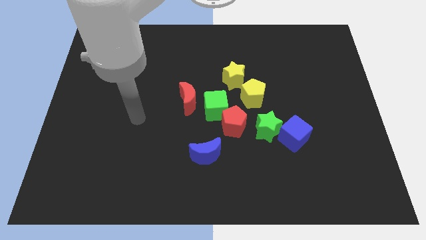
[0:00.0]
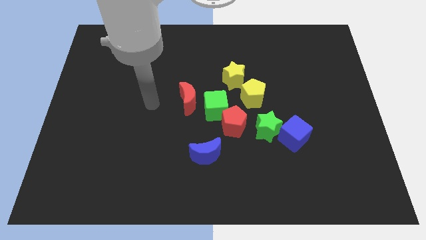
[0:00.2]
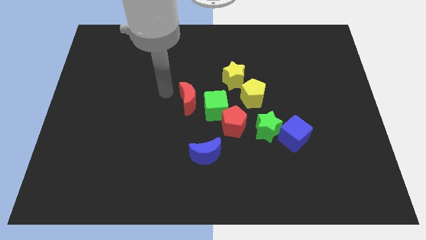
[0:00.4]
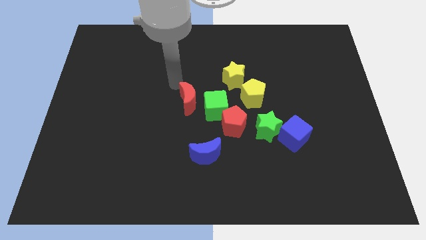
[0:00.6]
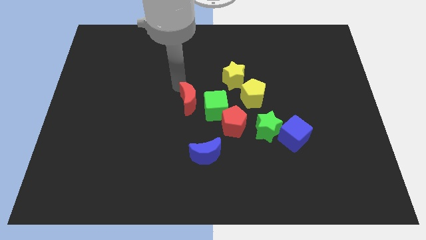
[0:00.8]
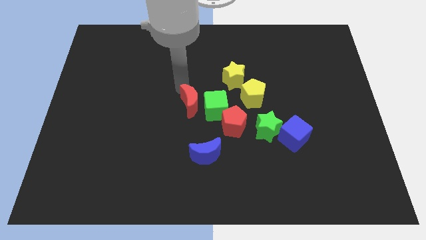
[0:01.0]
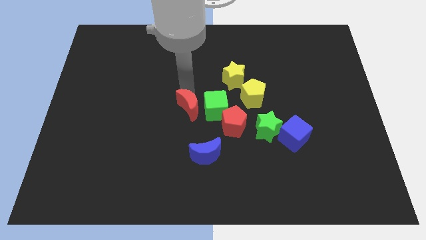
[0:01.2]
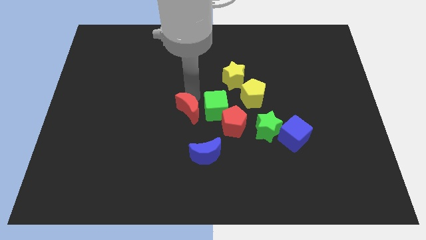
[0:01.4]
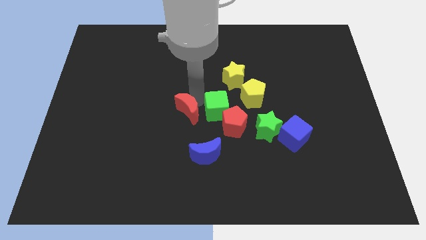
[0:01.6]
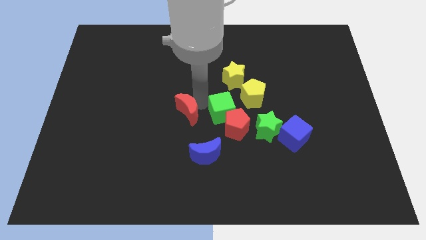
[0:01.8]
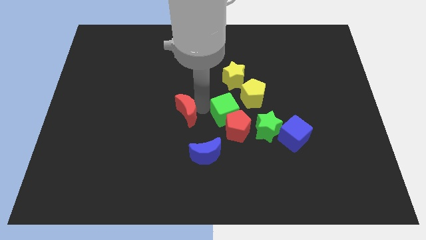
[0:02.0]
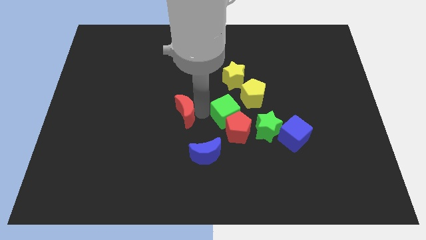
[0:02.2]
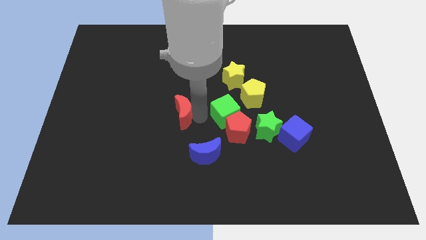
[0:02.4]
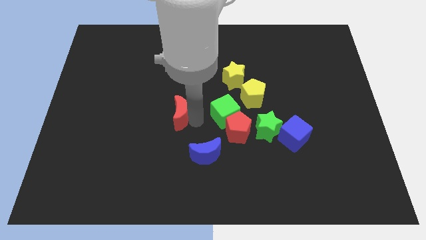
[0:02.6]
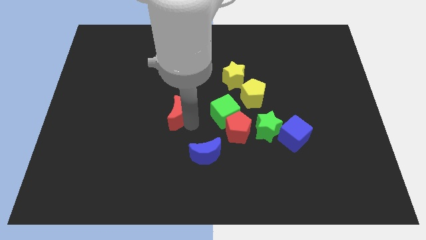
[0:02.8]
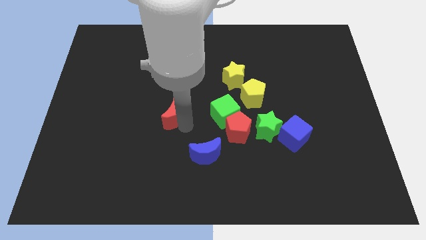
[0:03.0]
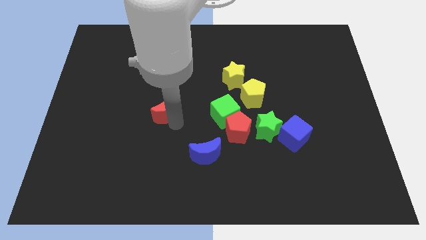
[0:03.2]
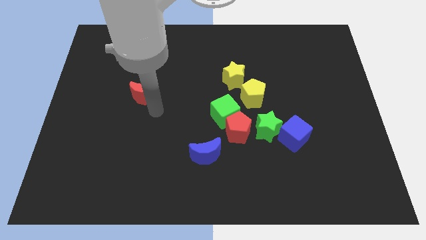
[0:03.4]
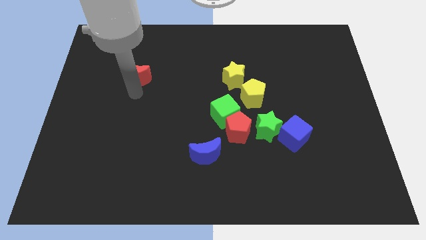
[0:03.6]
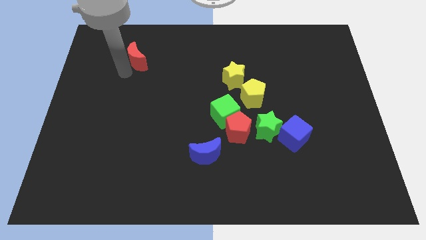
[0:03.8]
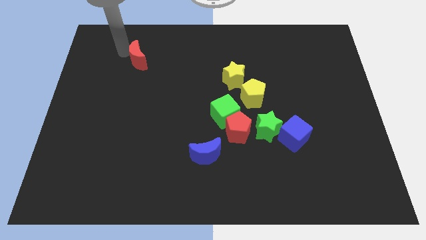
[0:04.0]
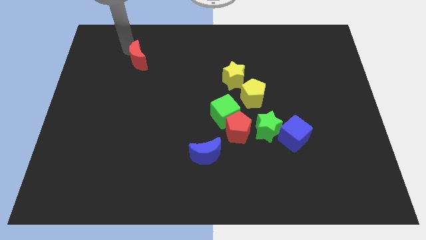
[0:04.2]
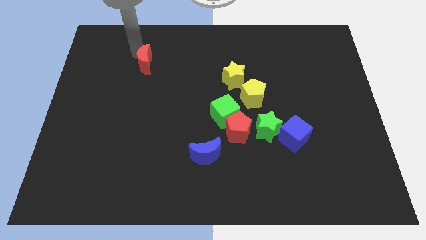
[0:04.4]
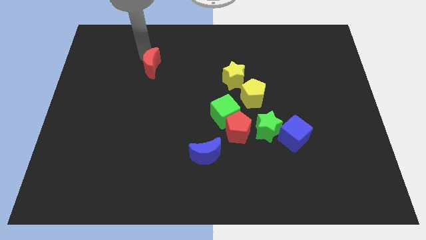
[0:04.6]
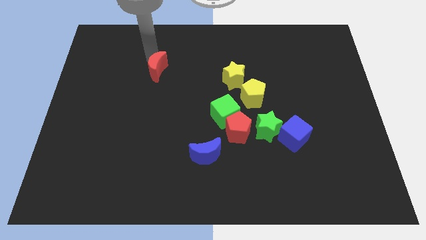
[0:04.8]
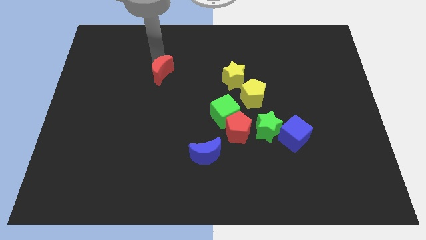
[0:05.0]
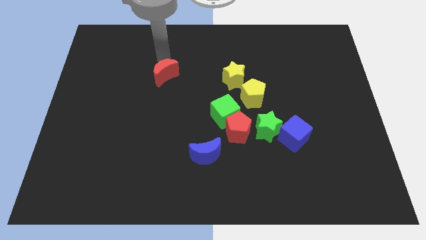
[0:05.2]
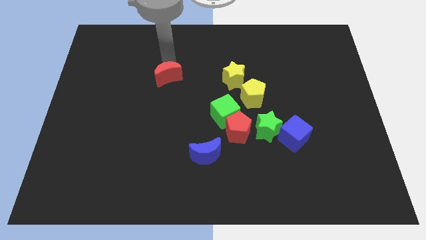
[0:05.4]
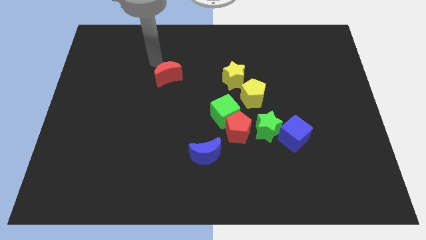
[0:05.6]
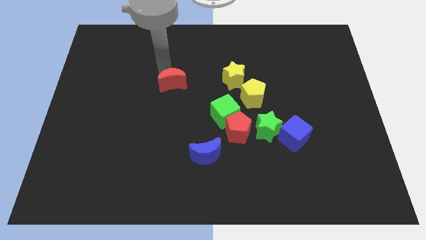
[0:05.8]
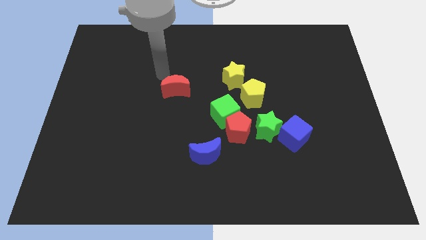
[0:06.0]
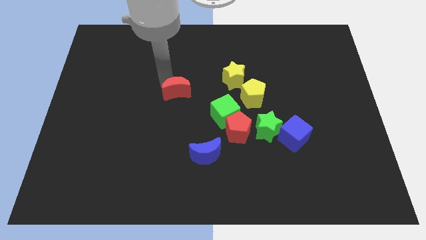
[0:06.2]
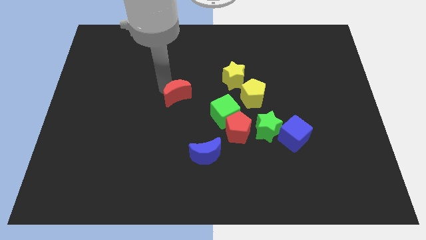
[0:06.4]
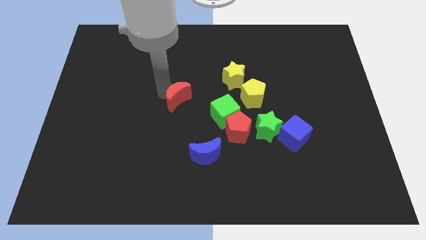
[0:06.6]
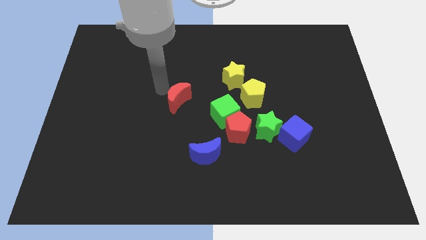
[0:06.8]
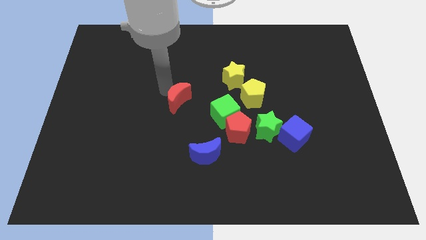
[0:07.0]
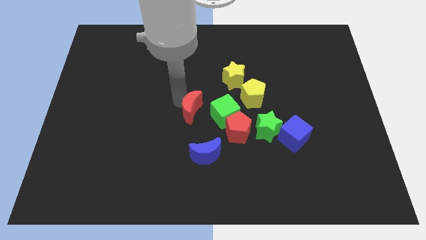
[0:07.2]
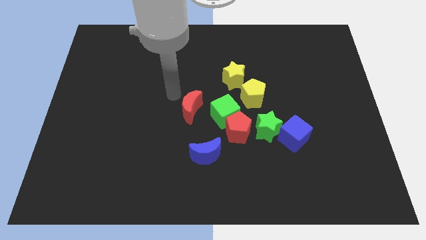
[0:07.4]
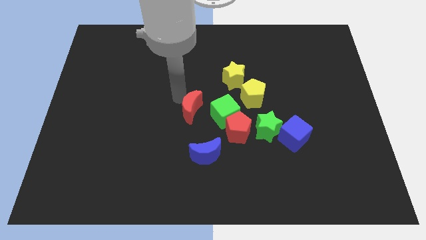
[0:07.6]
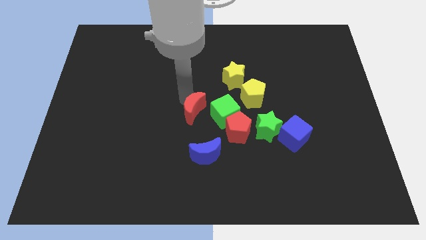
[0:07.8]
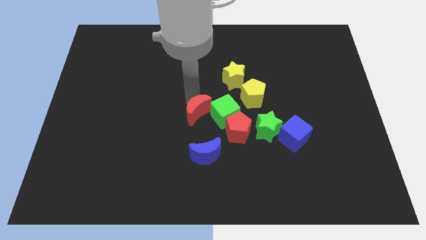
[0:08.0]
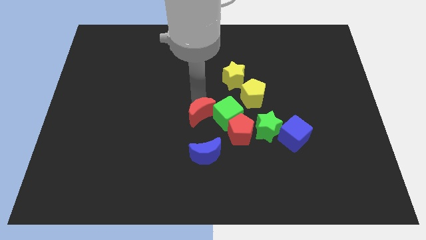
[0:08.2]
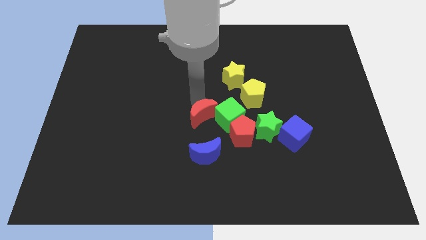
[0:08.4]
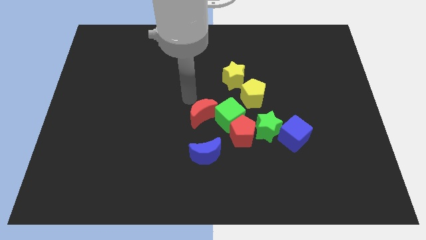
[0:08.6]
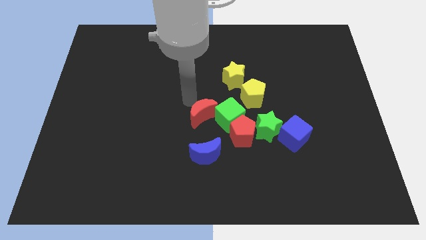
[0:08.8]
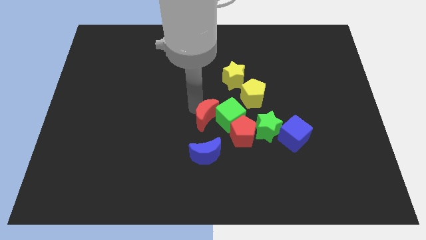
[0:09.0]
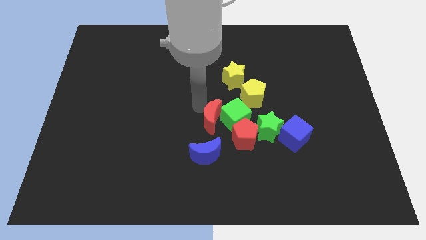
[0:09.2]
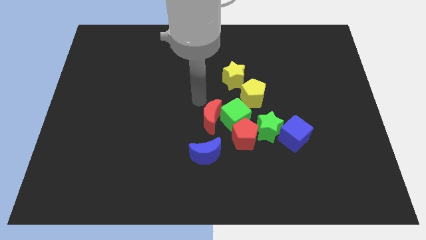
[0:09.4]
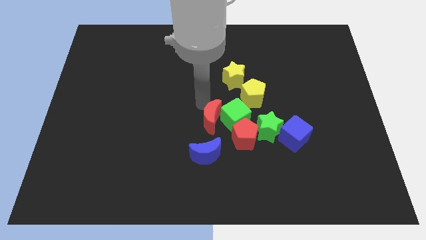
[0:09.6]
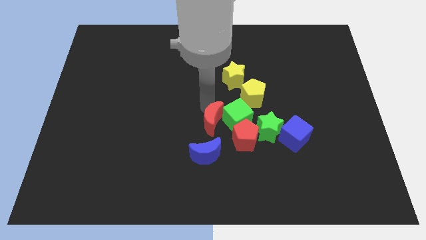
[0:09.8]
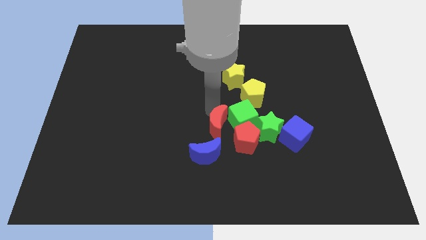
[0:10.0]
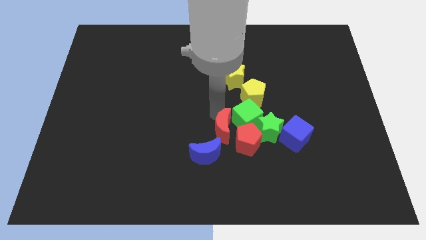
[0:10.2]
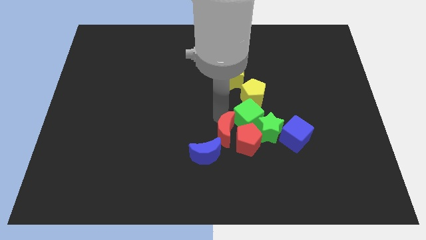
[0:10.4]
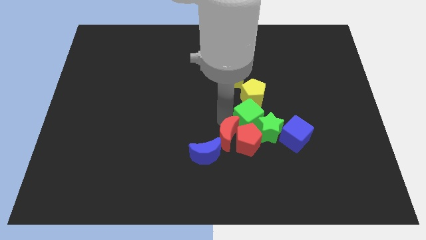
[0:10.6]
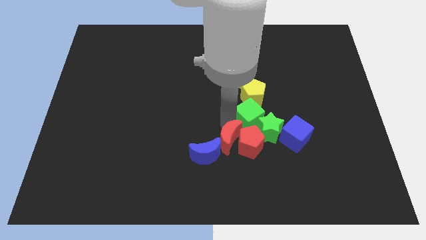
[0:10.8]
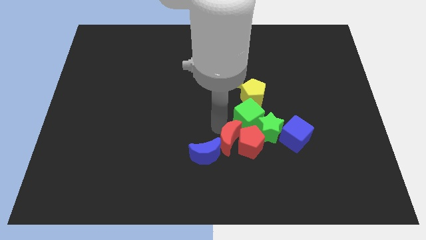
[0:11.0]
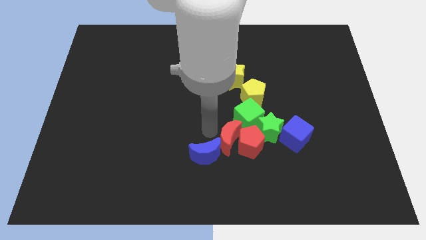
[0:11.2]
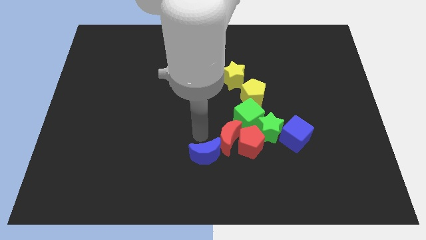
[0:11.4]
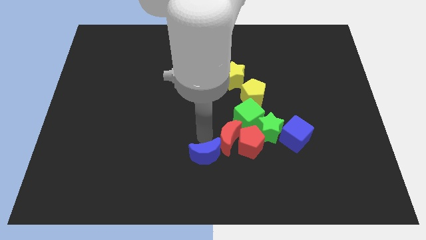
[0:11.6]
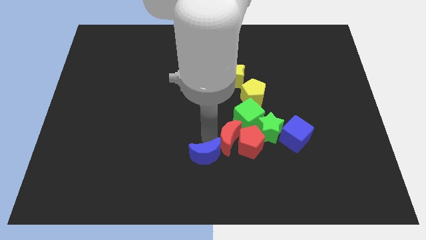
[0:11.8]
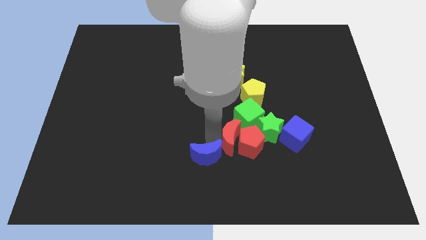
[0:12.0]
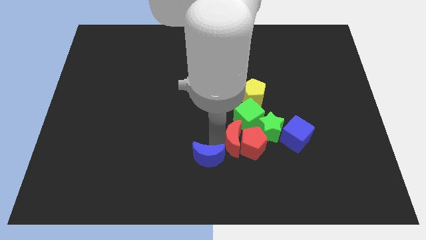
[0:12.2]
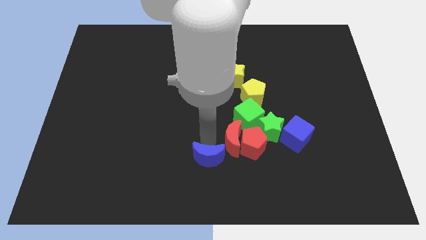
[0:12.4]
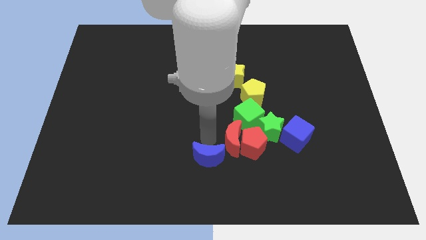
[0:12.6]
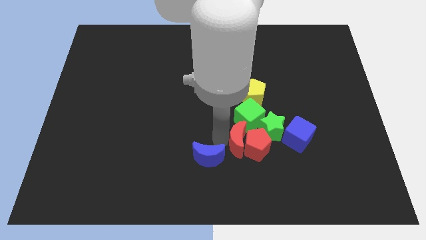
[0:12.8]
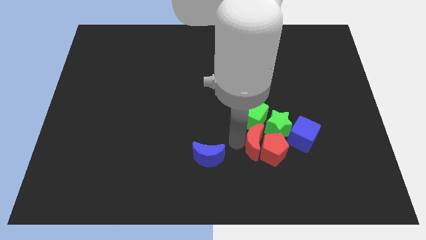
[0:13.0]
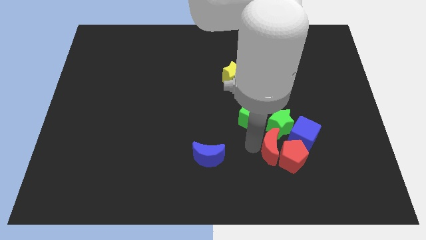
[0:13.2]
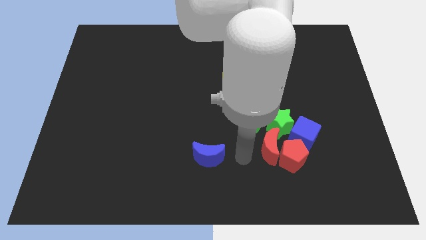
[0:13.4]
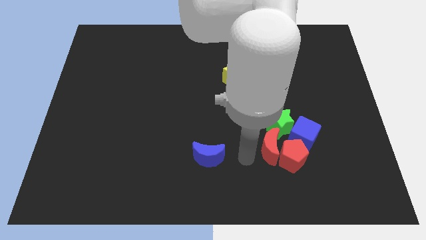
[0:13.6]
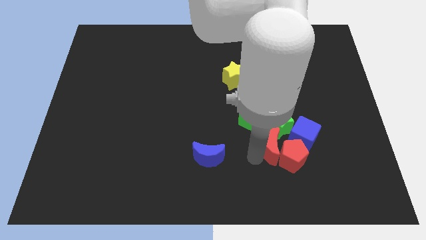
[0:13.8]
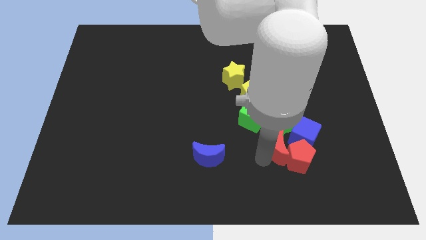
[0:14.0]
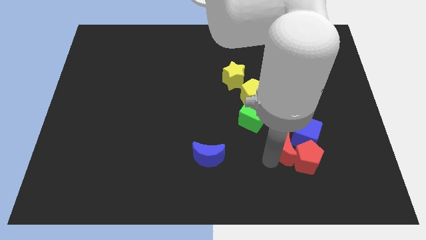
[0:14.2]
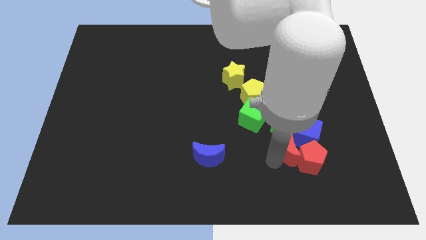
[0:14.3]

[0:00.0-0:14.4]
slide the red moon towards the blue cube
